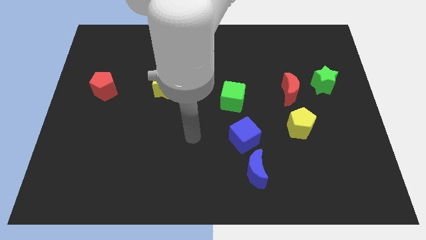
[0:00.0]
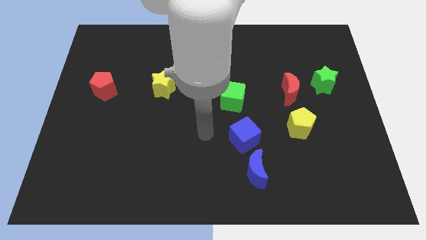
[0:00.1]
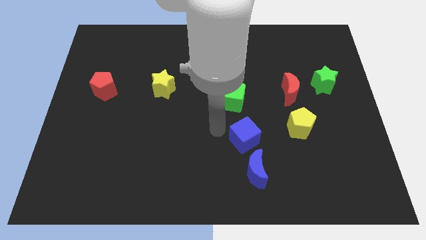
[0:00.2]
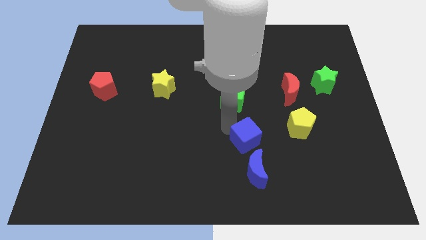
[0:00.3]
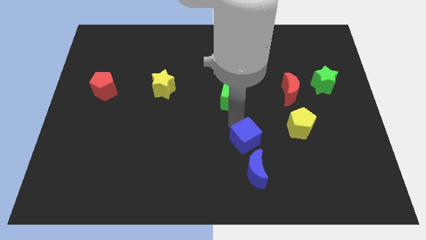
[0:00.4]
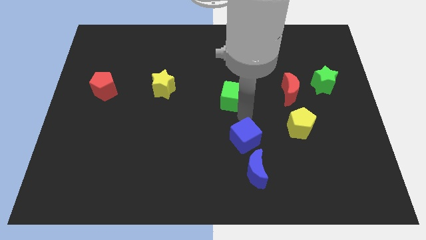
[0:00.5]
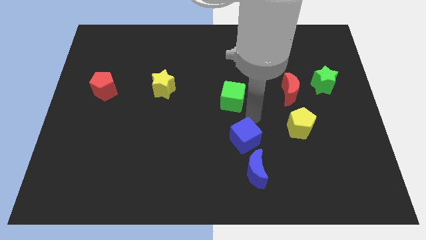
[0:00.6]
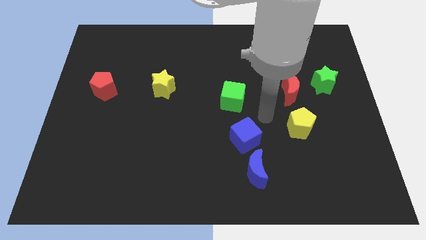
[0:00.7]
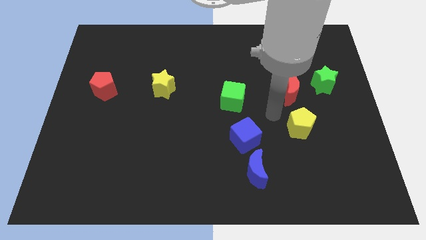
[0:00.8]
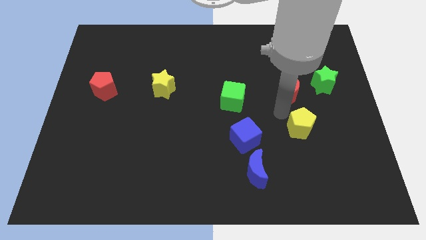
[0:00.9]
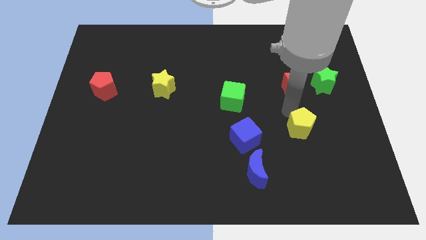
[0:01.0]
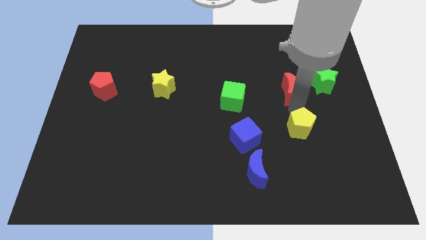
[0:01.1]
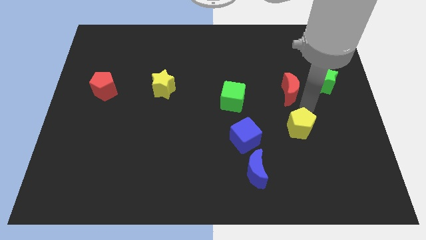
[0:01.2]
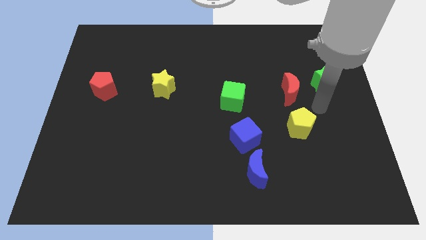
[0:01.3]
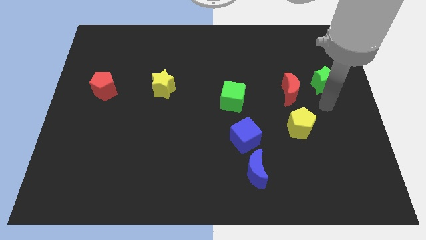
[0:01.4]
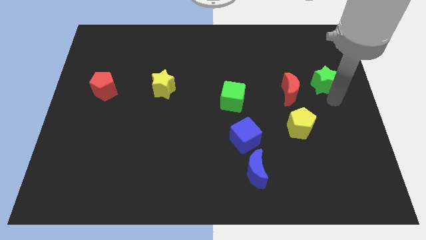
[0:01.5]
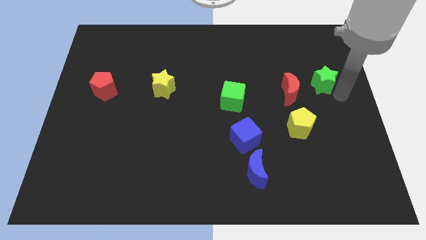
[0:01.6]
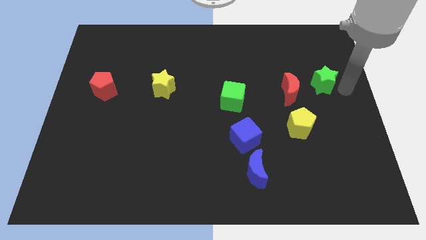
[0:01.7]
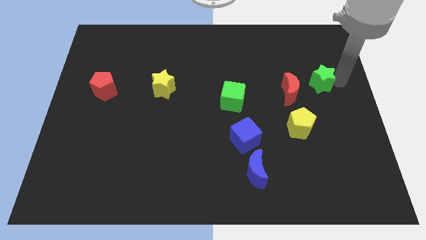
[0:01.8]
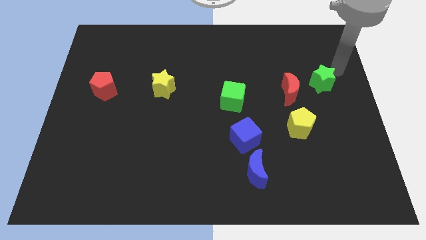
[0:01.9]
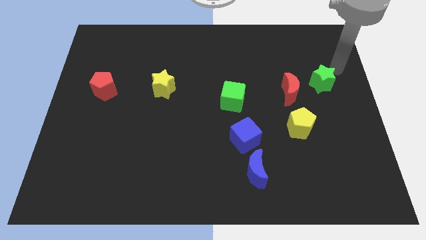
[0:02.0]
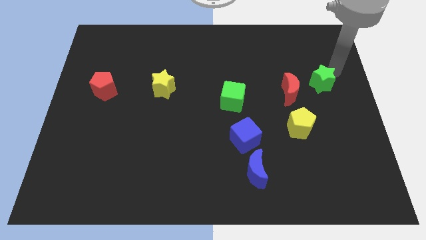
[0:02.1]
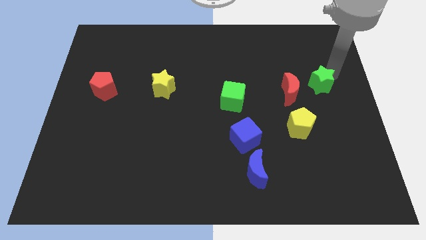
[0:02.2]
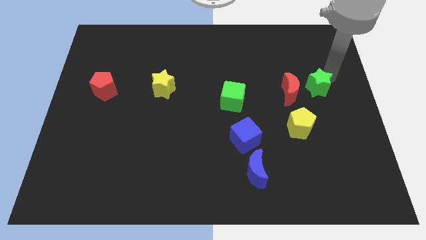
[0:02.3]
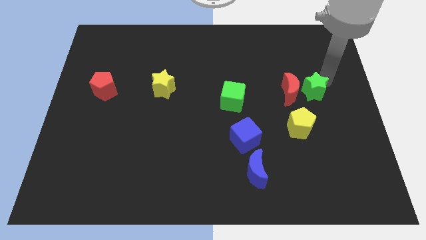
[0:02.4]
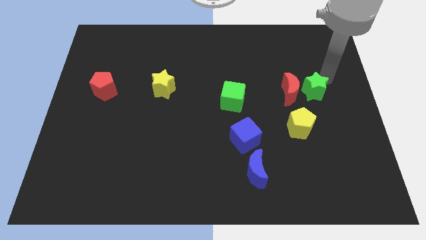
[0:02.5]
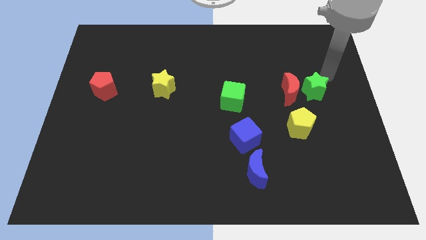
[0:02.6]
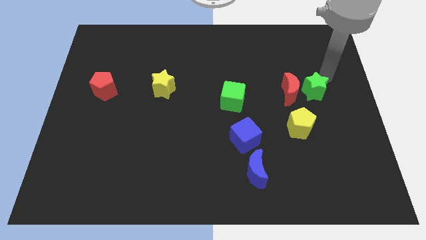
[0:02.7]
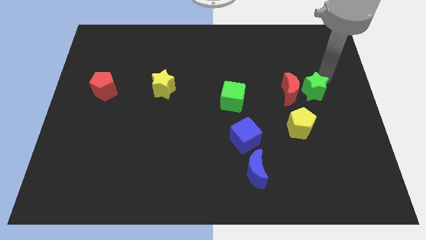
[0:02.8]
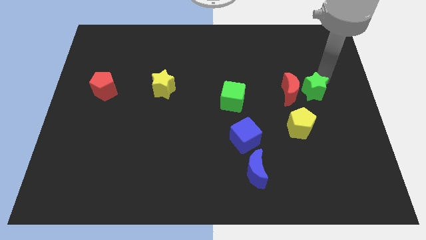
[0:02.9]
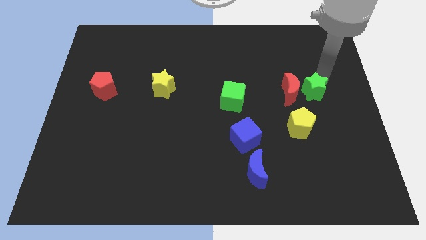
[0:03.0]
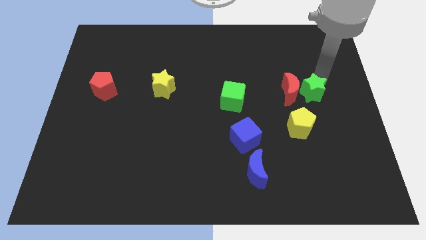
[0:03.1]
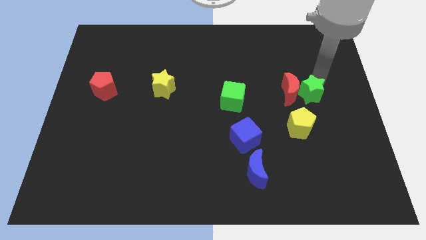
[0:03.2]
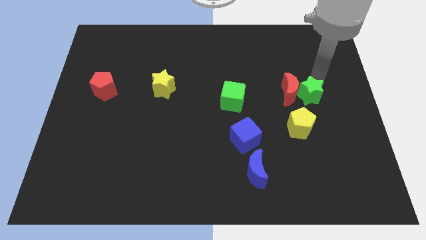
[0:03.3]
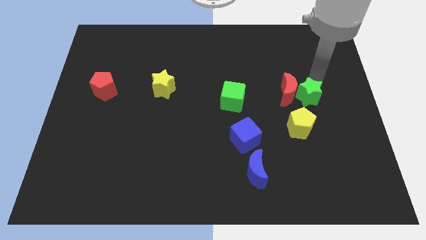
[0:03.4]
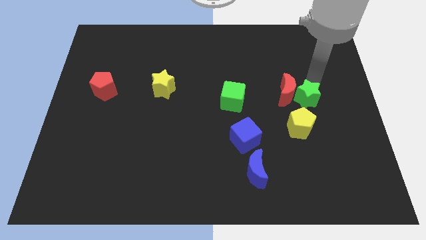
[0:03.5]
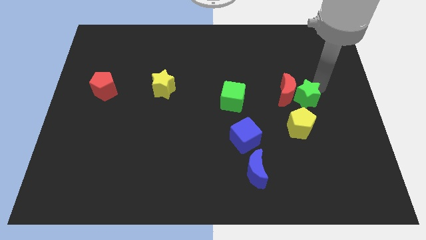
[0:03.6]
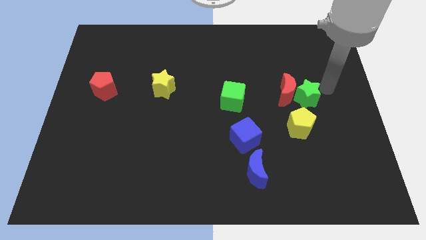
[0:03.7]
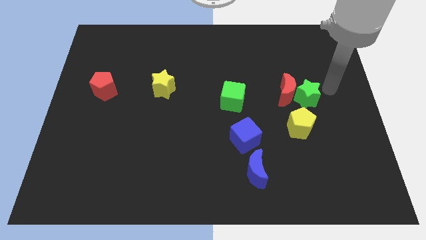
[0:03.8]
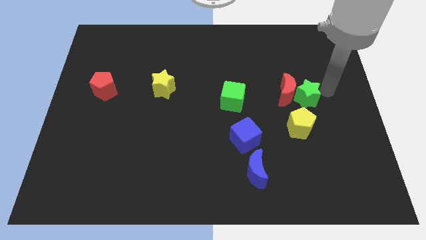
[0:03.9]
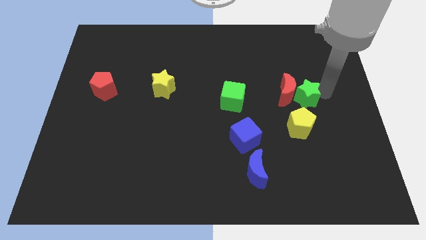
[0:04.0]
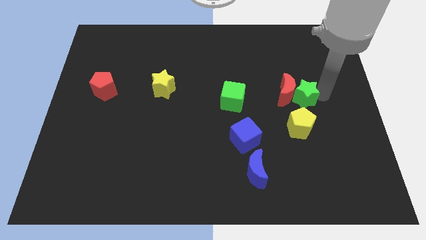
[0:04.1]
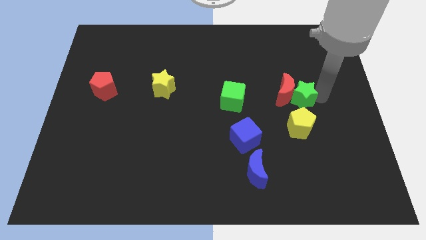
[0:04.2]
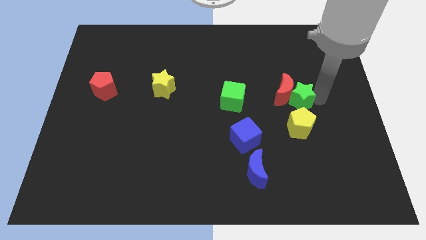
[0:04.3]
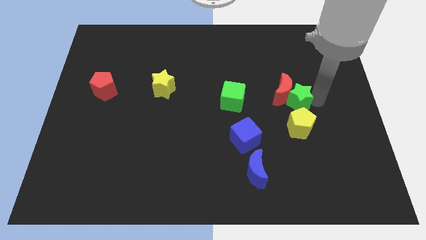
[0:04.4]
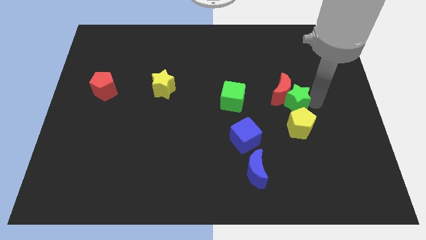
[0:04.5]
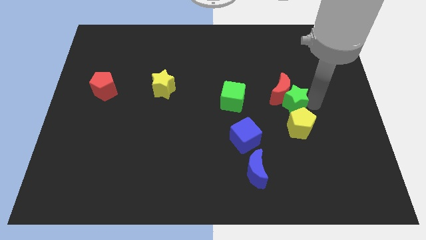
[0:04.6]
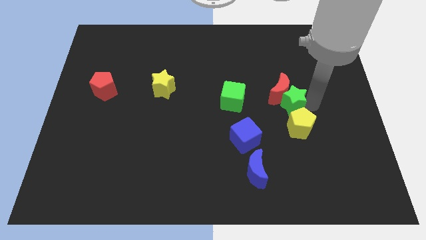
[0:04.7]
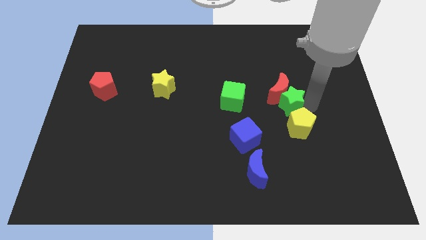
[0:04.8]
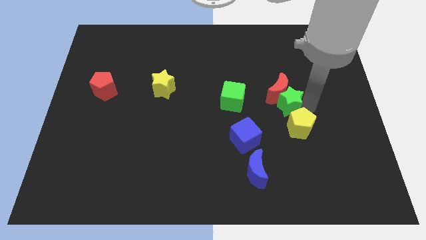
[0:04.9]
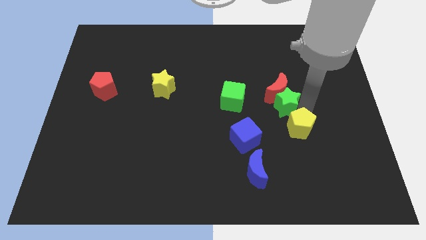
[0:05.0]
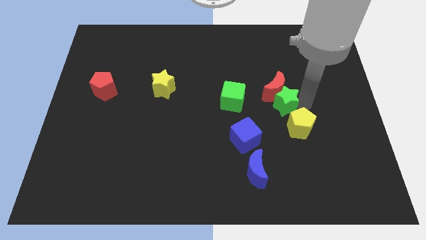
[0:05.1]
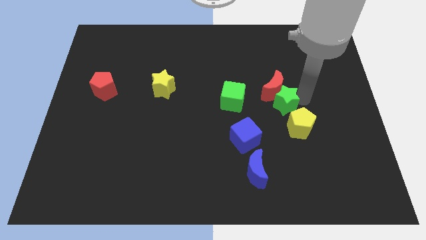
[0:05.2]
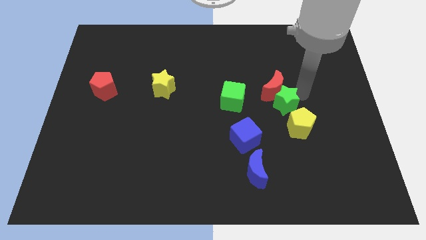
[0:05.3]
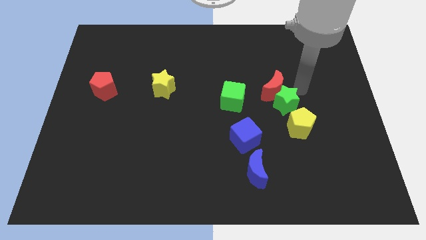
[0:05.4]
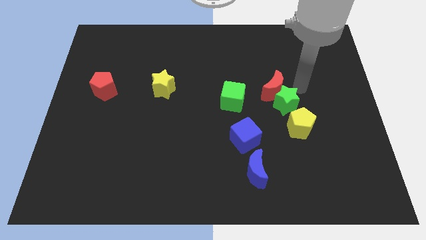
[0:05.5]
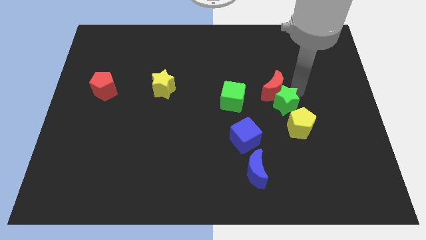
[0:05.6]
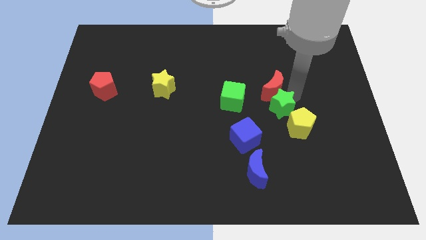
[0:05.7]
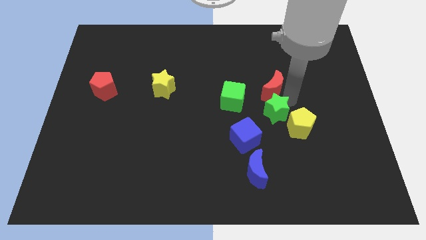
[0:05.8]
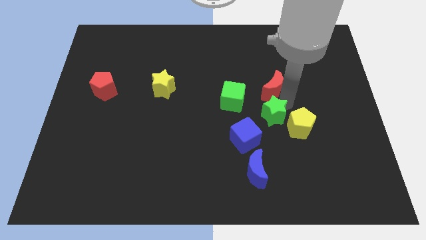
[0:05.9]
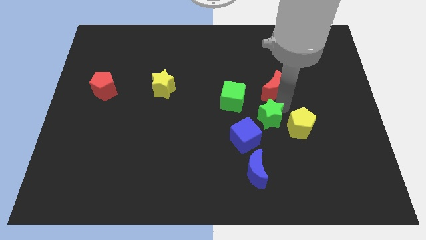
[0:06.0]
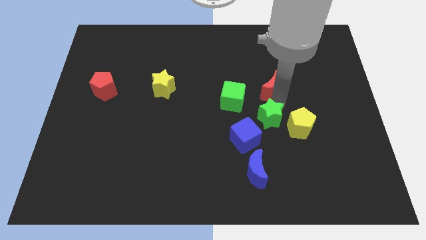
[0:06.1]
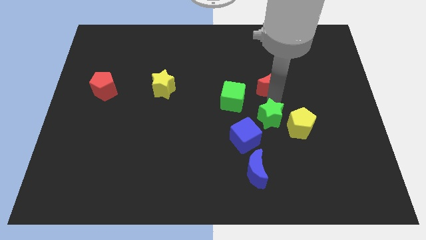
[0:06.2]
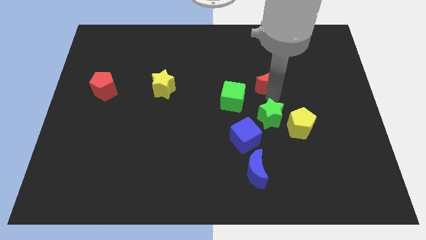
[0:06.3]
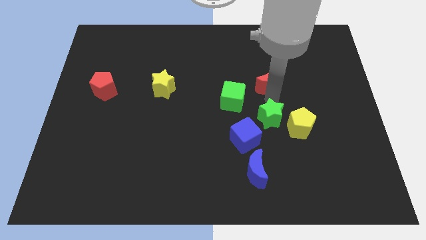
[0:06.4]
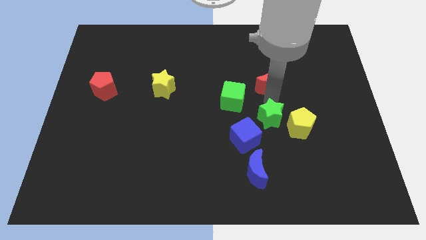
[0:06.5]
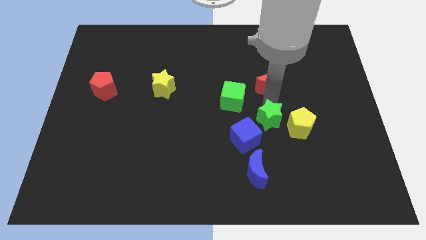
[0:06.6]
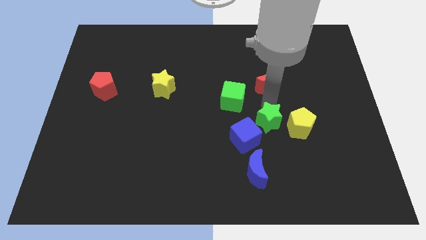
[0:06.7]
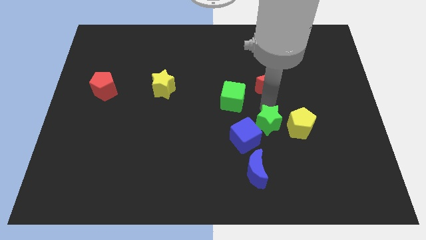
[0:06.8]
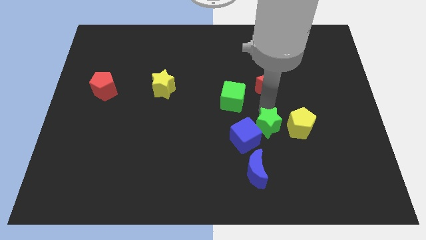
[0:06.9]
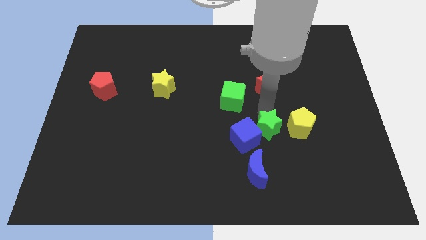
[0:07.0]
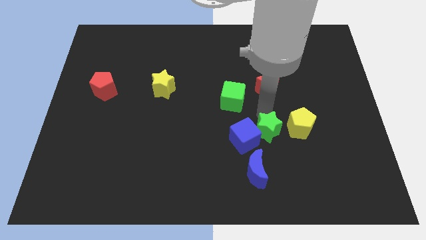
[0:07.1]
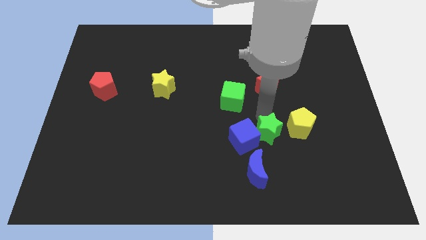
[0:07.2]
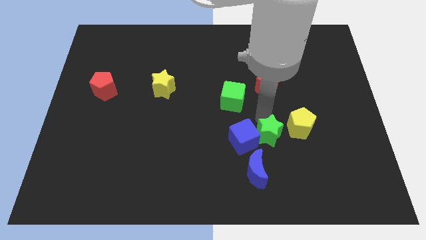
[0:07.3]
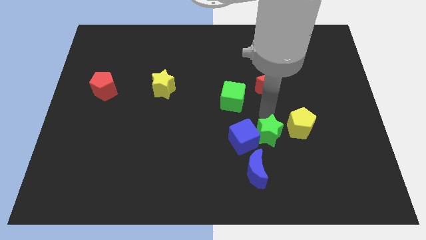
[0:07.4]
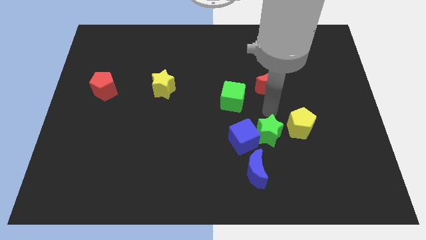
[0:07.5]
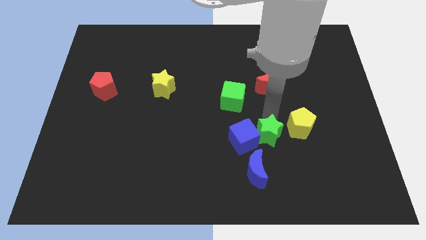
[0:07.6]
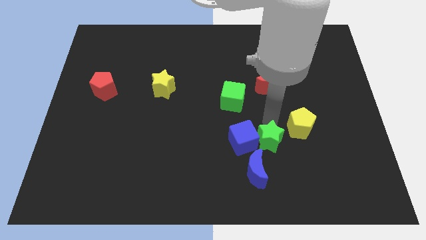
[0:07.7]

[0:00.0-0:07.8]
put the green star diagonally down and to the right of the blue cube
